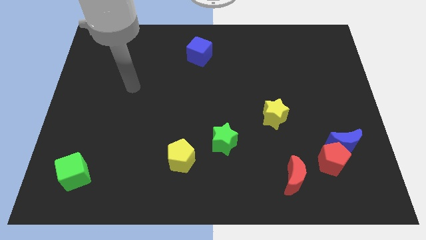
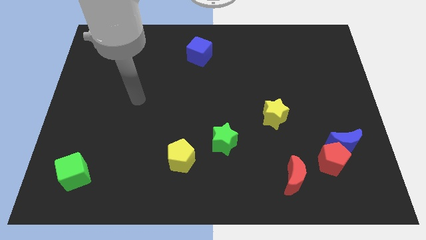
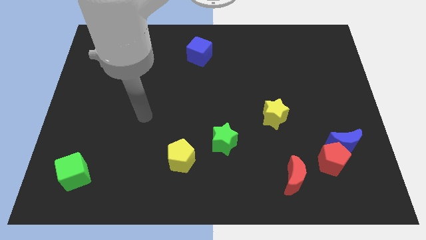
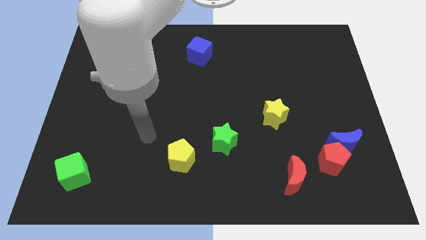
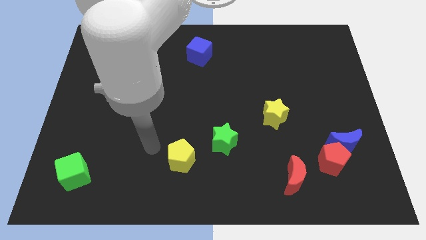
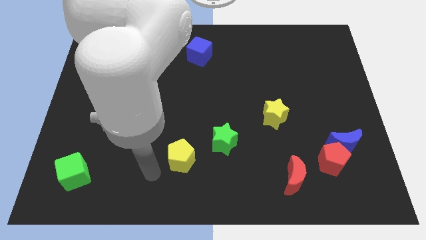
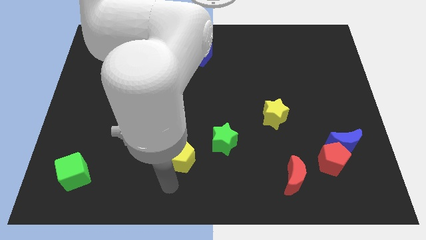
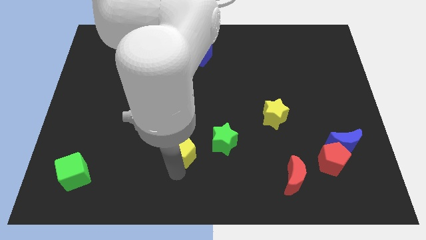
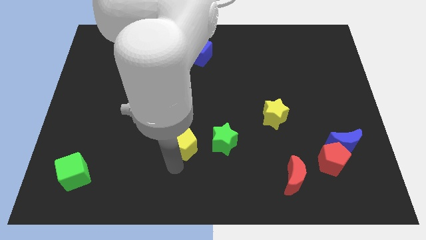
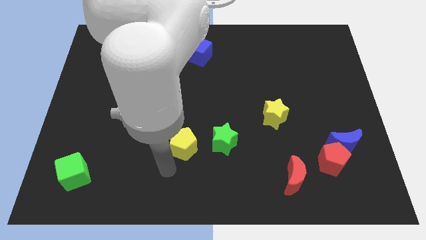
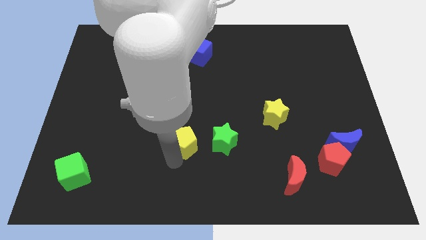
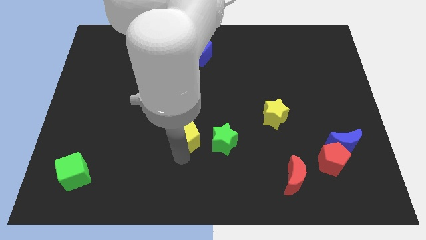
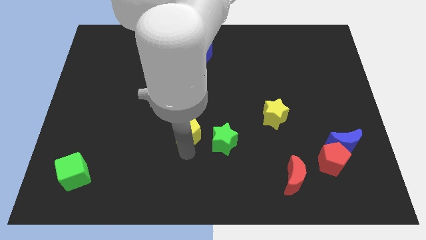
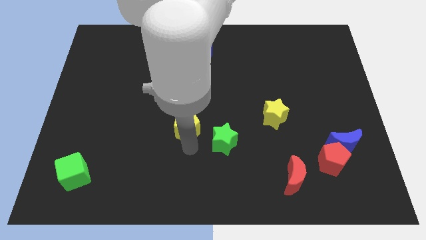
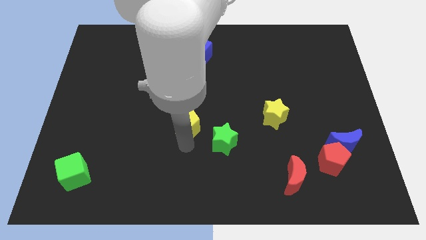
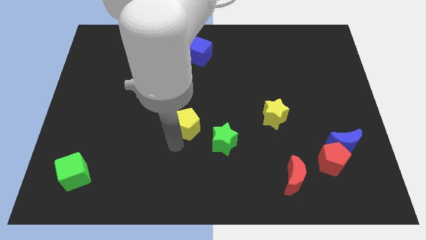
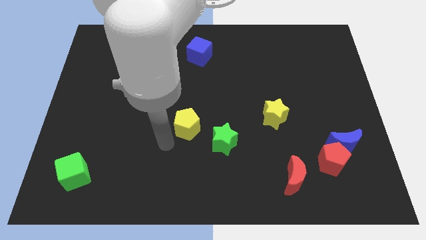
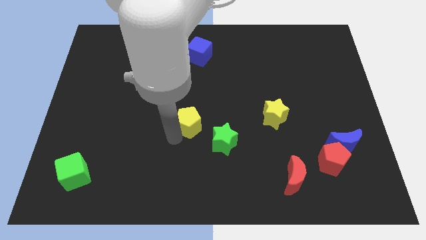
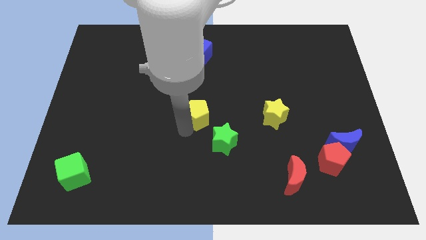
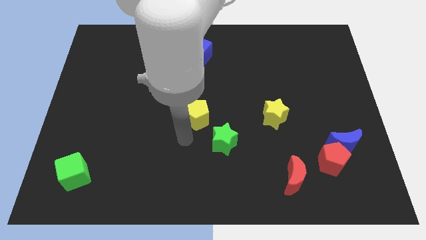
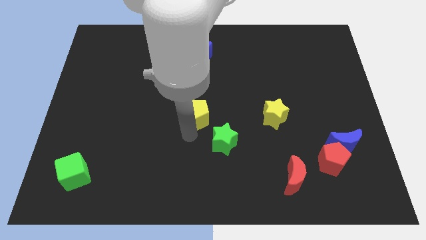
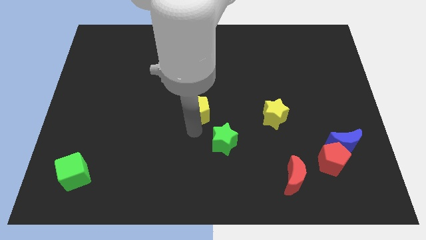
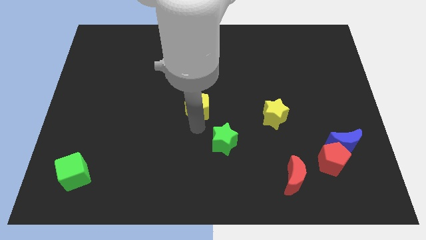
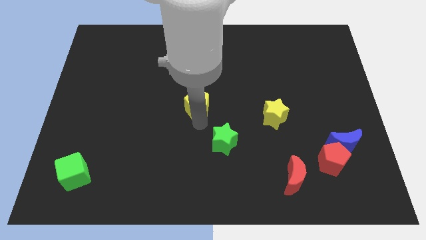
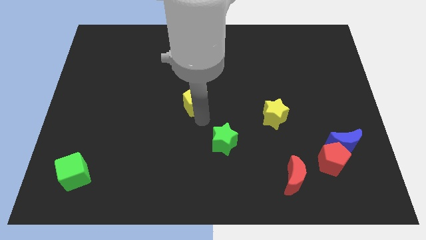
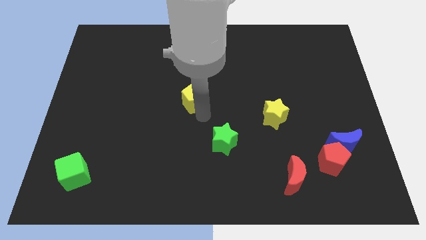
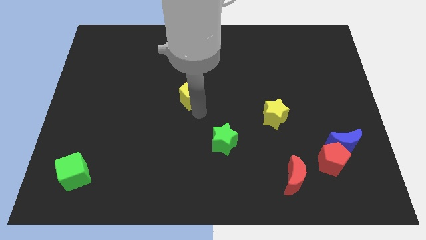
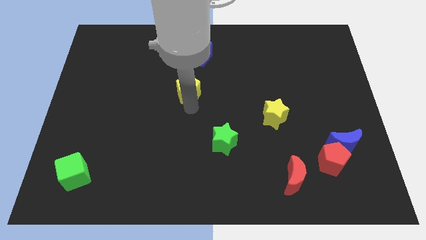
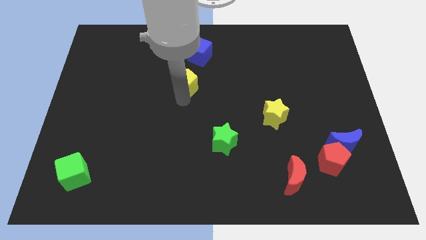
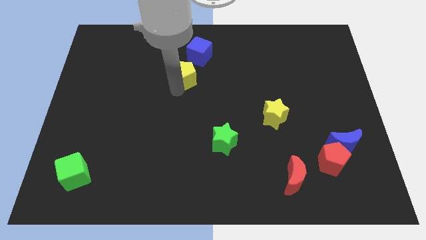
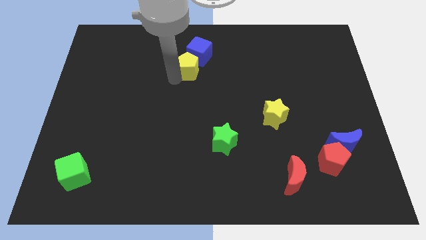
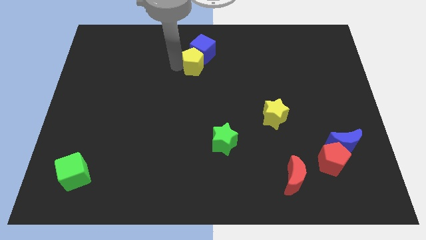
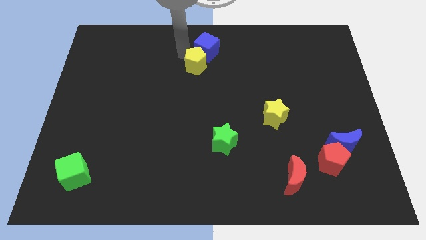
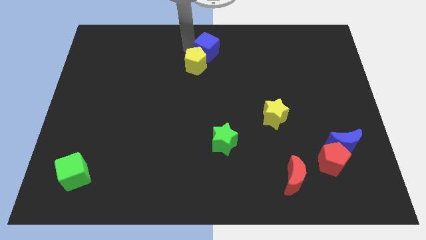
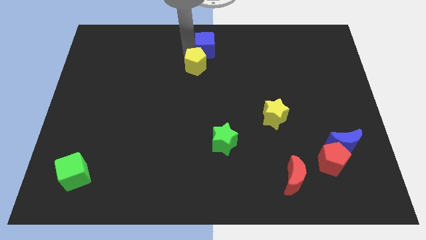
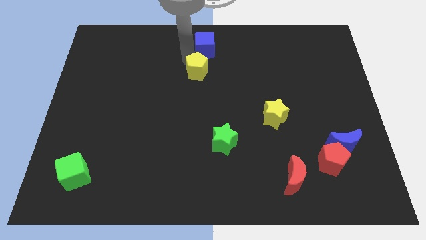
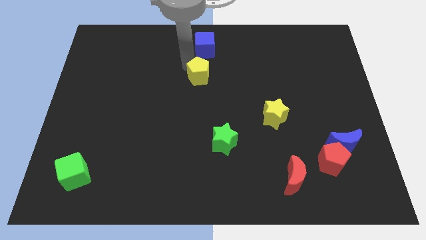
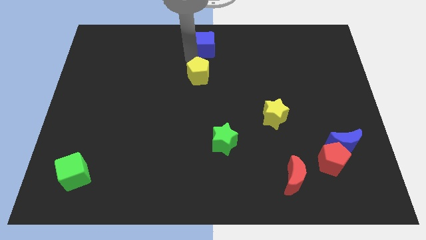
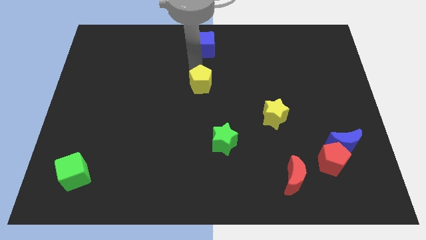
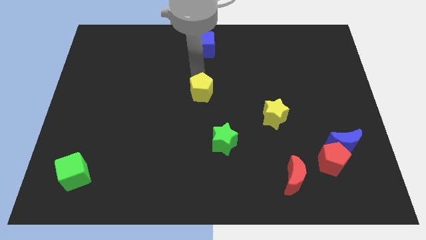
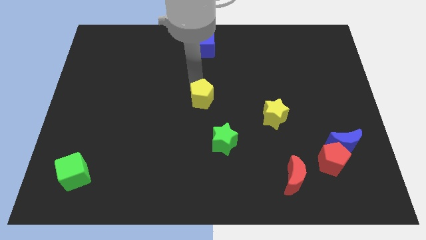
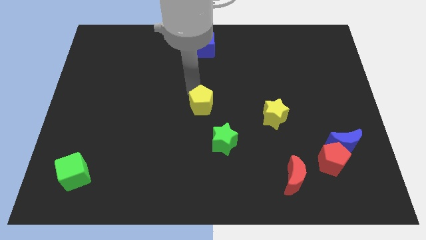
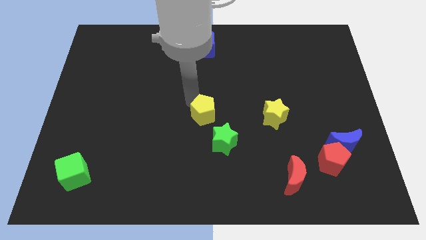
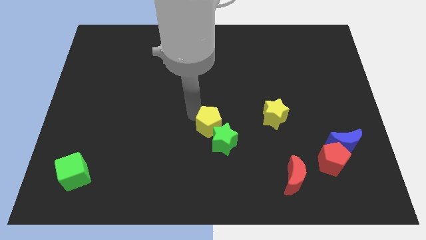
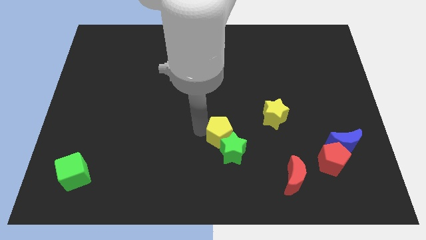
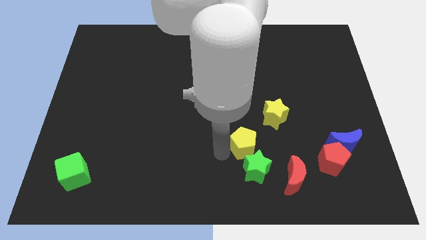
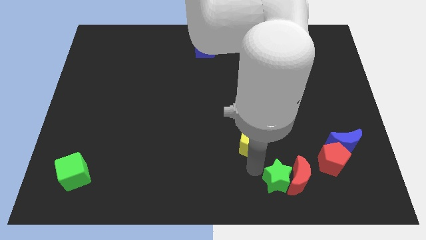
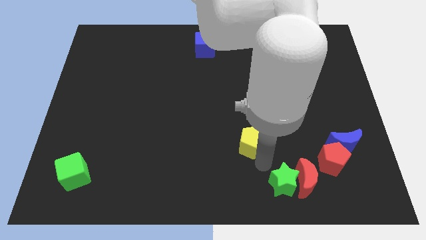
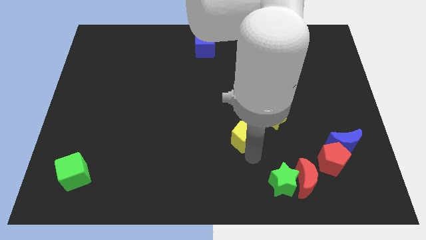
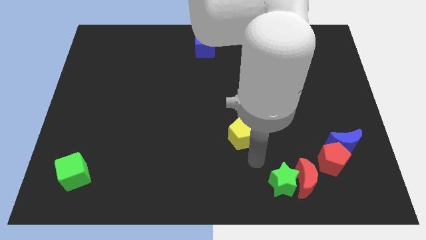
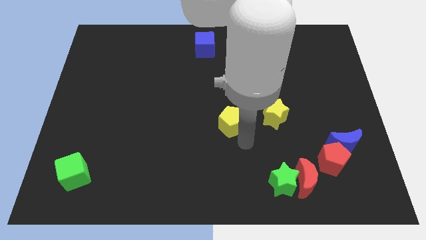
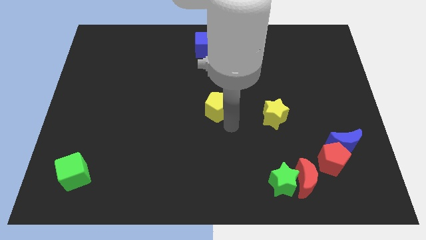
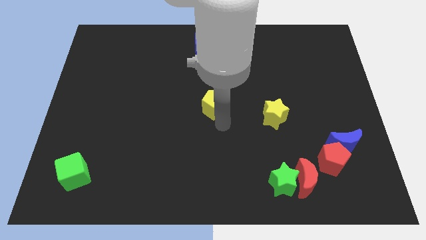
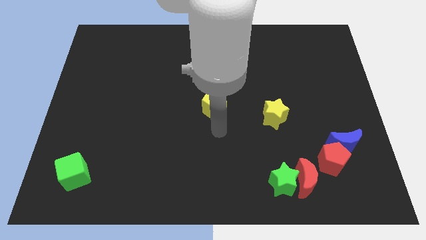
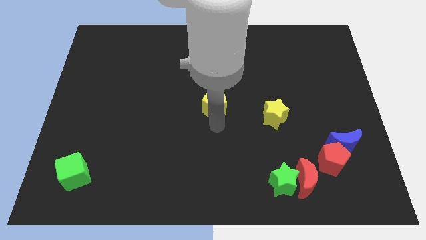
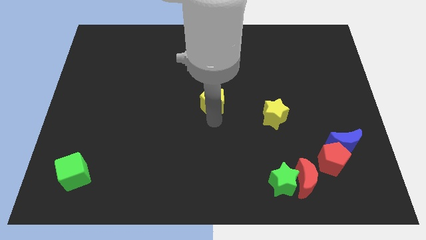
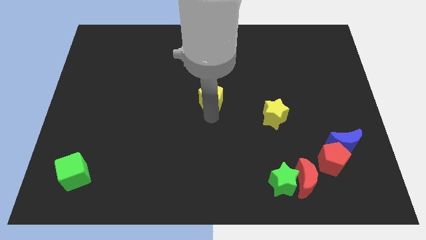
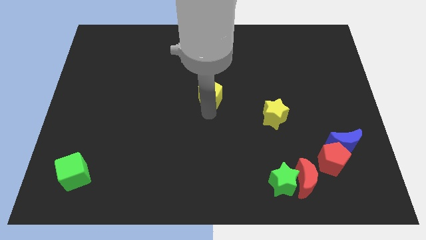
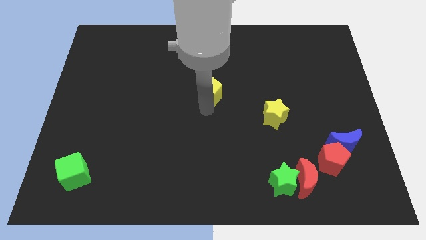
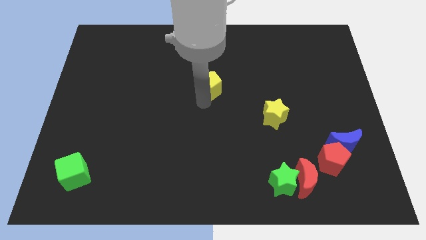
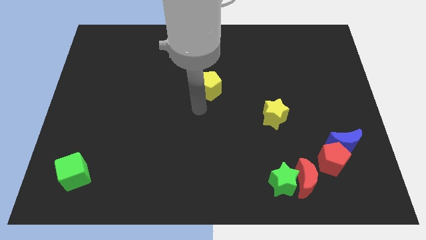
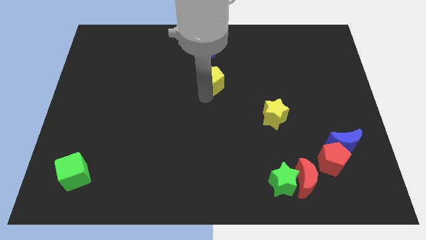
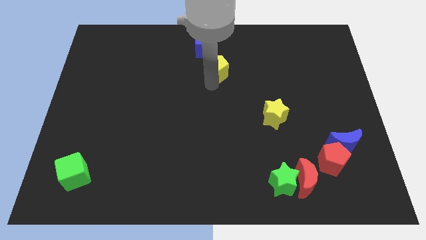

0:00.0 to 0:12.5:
slide the yellow pentagon to the bottom right of the blue cube

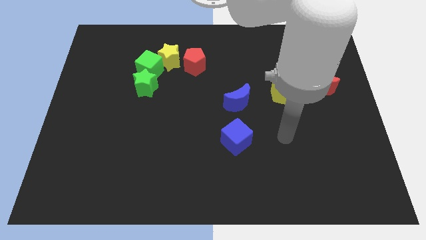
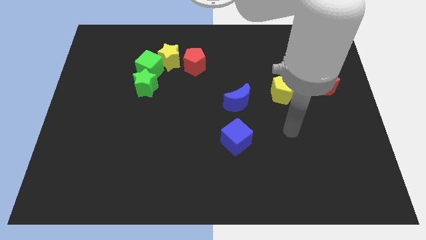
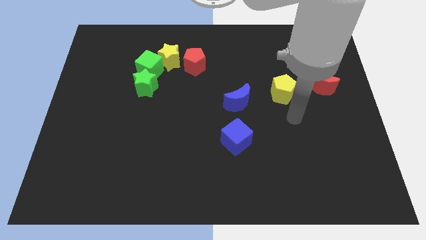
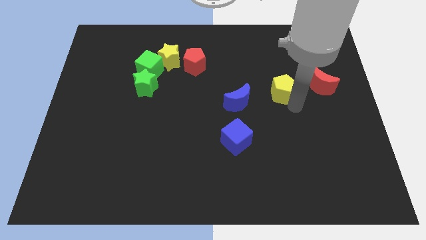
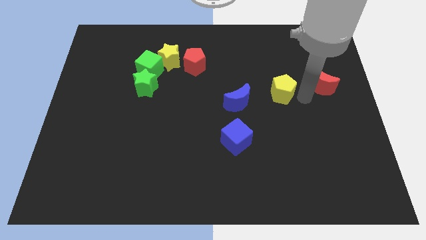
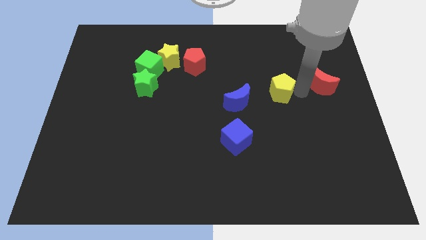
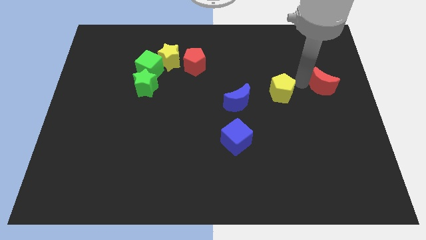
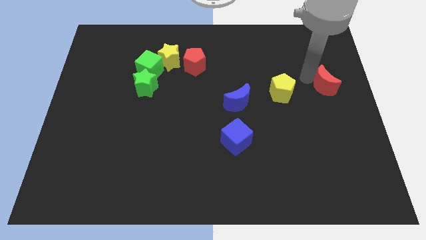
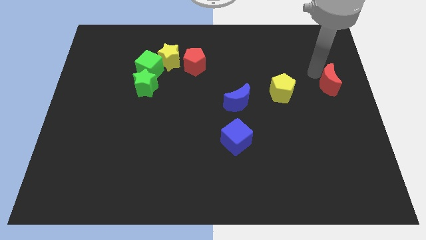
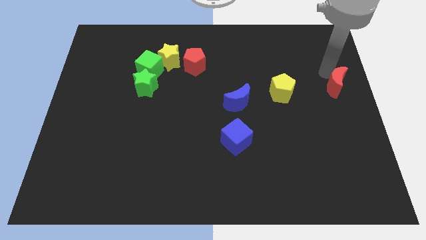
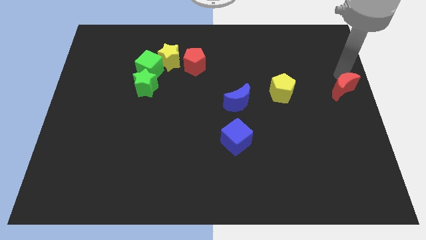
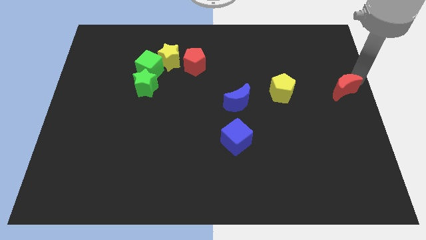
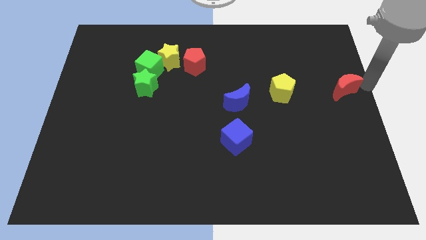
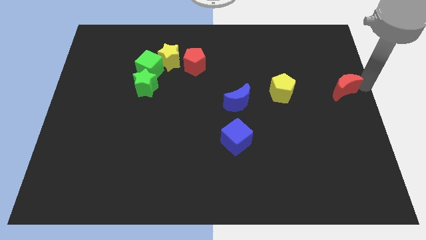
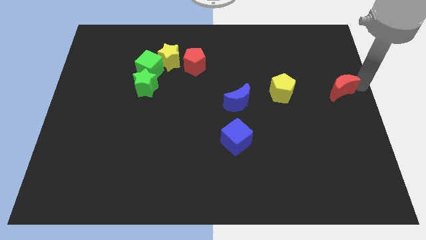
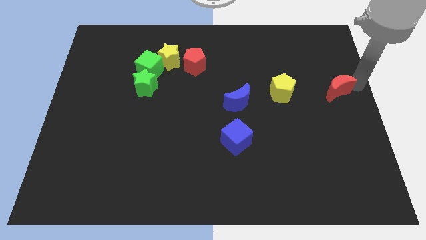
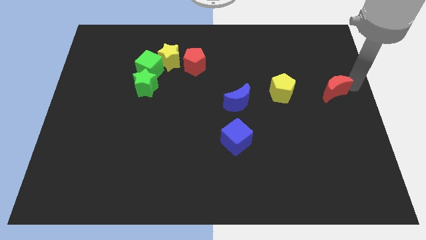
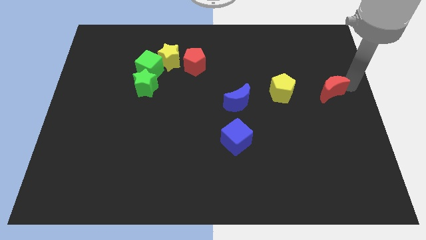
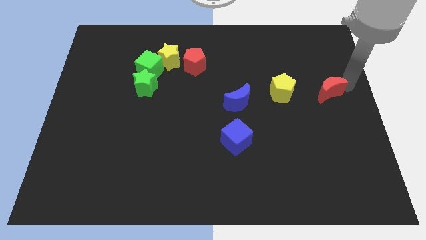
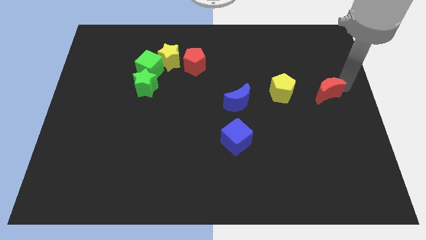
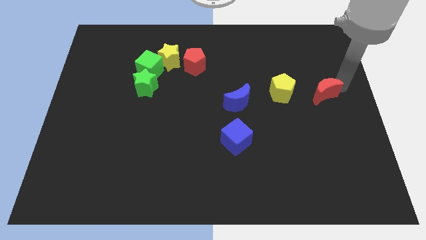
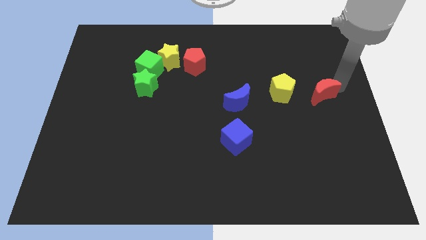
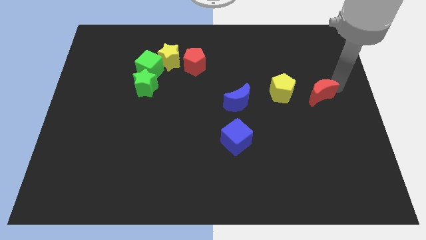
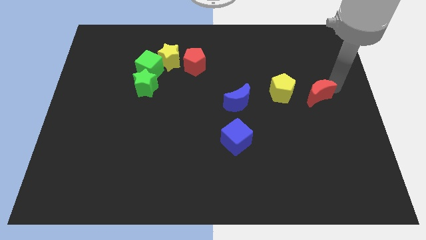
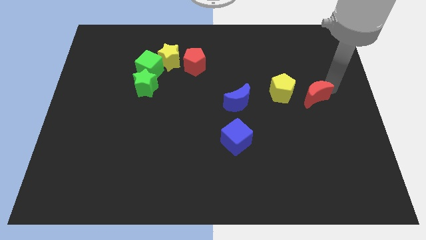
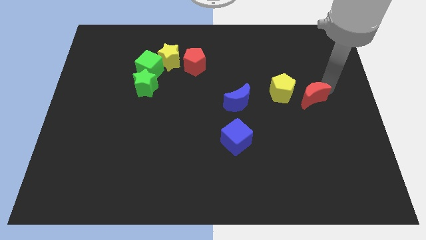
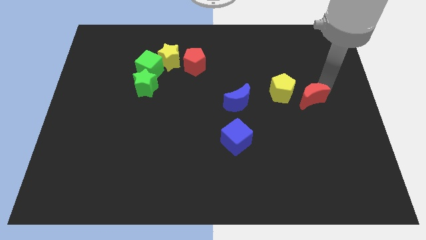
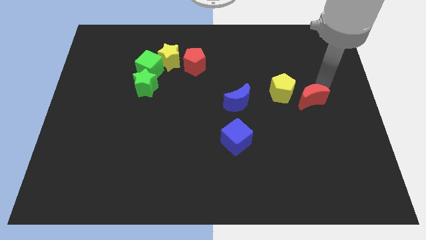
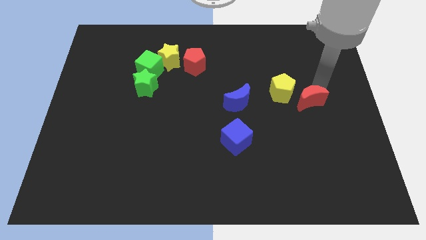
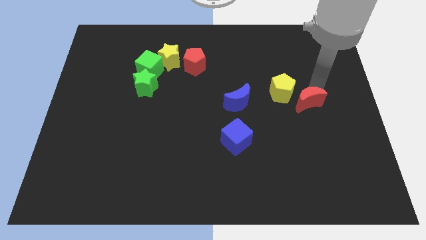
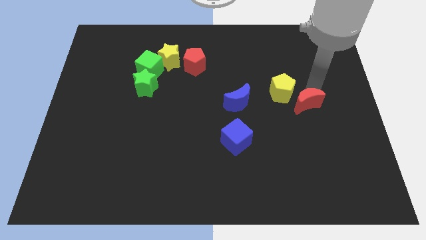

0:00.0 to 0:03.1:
push the red moon to the right side of the blue moon
